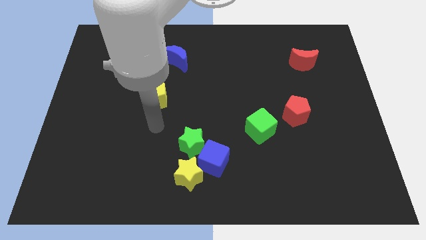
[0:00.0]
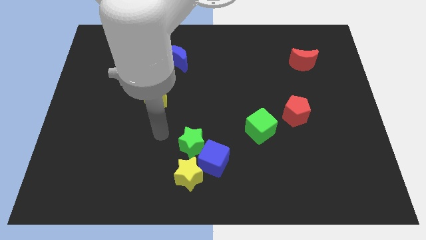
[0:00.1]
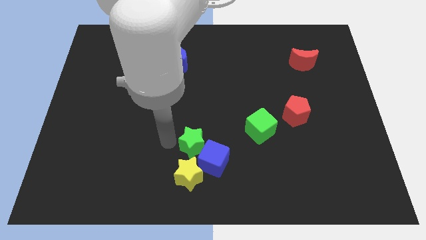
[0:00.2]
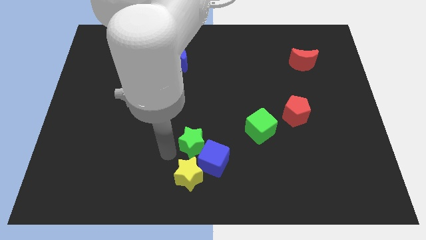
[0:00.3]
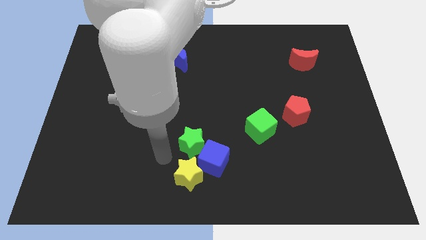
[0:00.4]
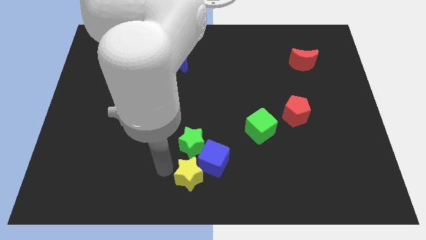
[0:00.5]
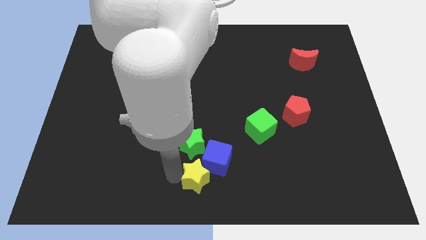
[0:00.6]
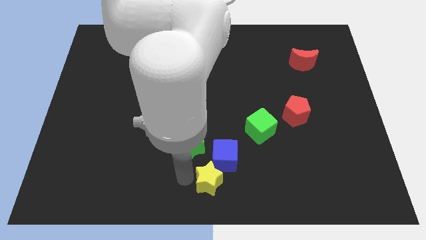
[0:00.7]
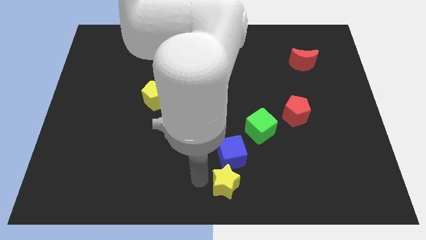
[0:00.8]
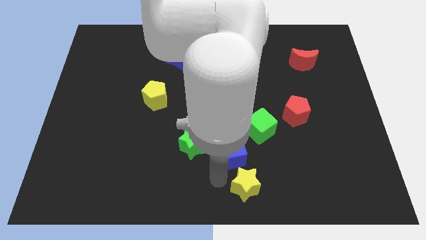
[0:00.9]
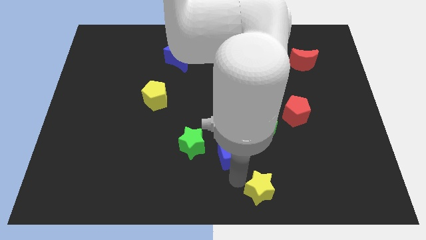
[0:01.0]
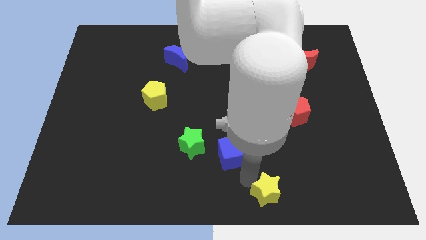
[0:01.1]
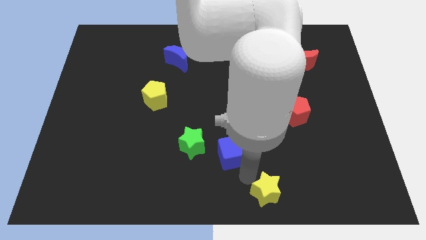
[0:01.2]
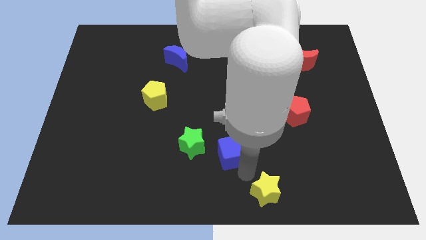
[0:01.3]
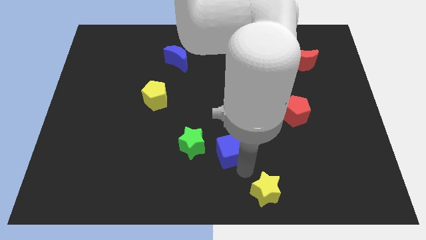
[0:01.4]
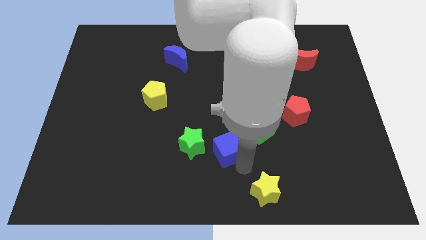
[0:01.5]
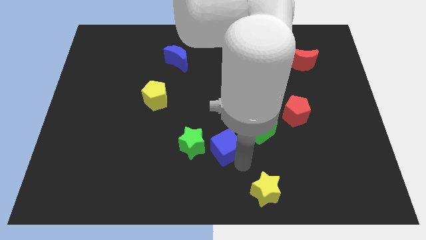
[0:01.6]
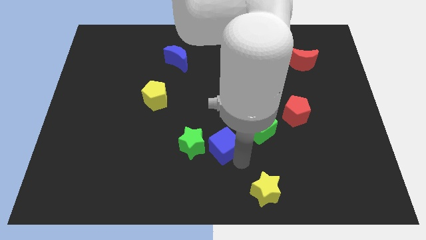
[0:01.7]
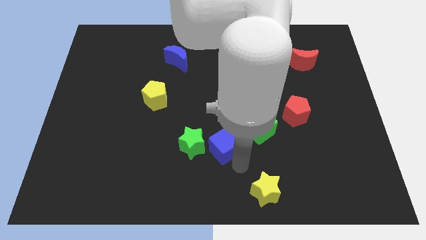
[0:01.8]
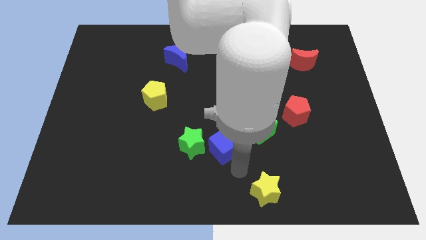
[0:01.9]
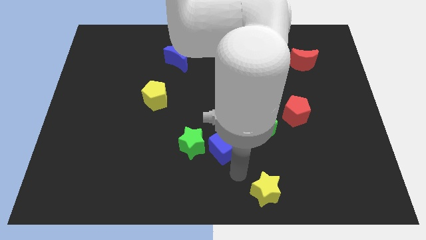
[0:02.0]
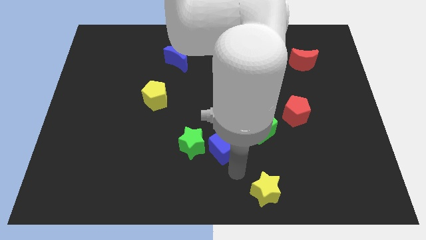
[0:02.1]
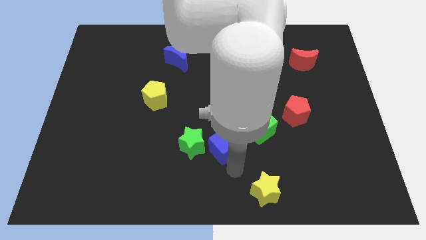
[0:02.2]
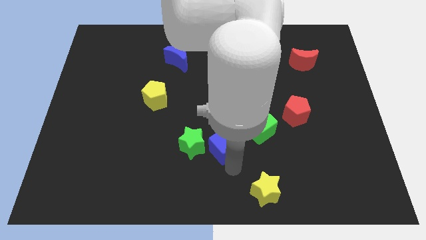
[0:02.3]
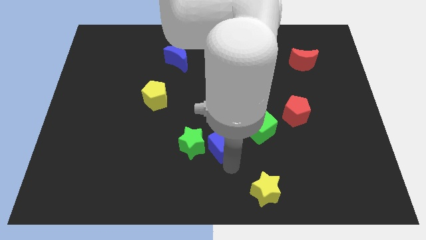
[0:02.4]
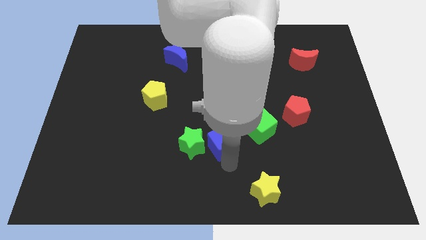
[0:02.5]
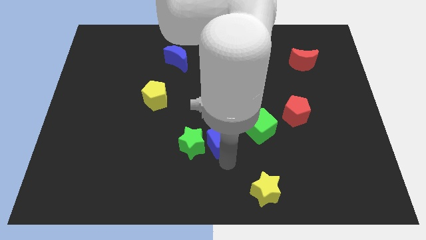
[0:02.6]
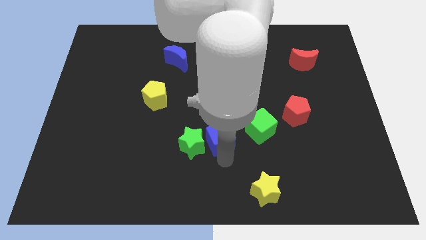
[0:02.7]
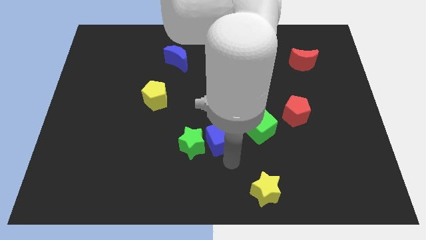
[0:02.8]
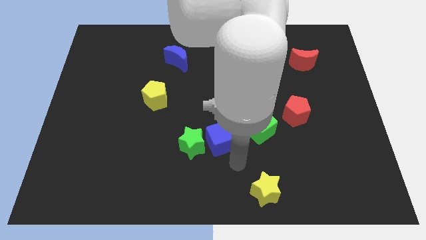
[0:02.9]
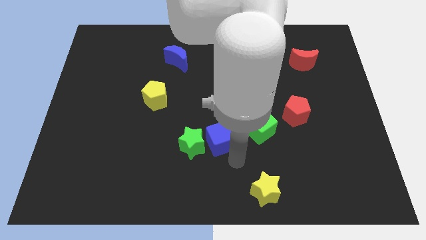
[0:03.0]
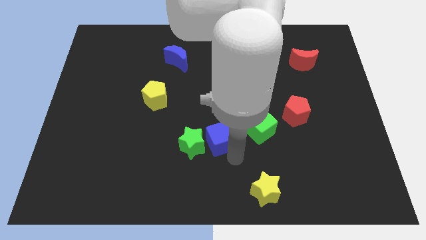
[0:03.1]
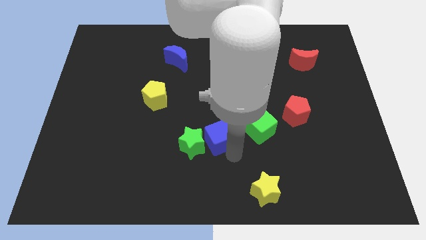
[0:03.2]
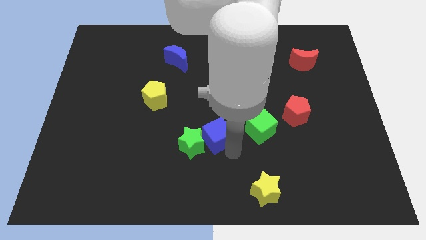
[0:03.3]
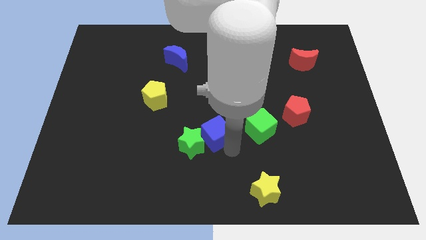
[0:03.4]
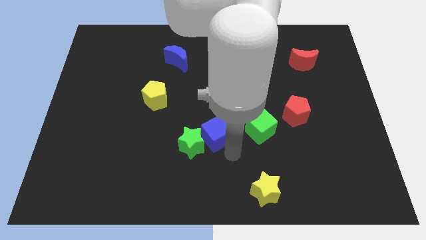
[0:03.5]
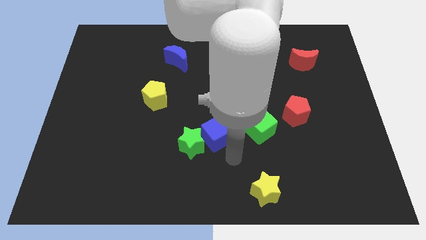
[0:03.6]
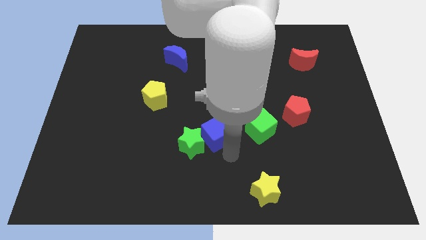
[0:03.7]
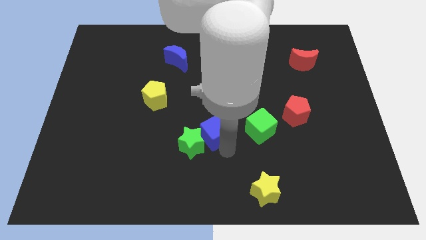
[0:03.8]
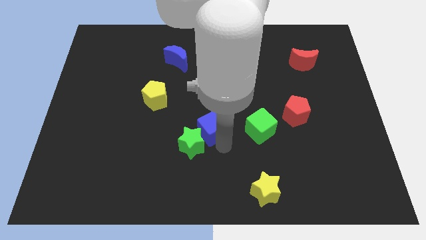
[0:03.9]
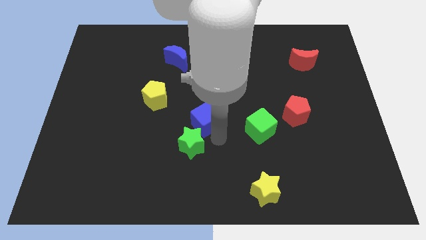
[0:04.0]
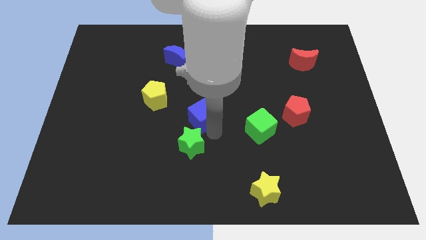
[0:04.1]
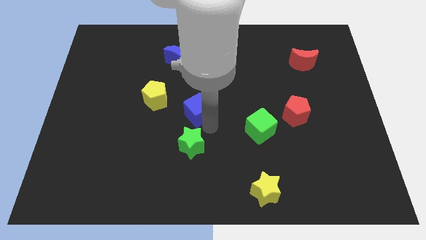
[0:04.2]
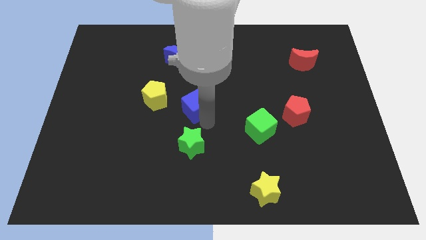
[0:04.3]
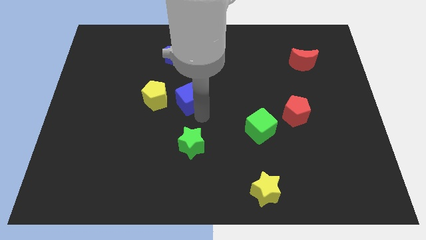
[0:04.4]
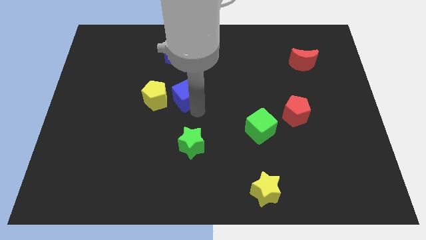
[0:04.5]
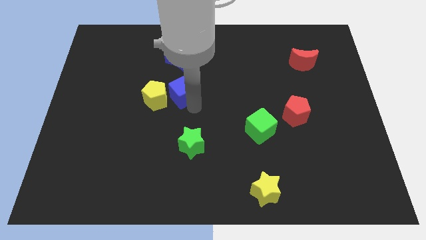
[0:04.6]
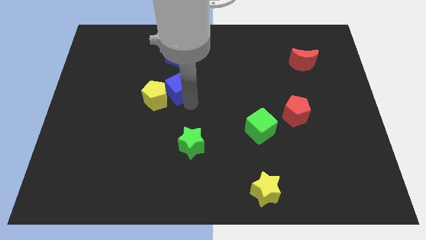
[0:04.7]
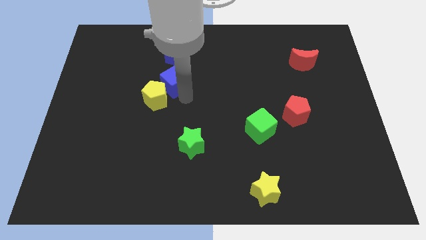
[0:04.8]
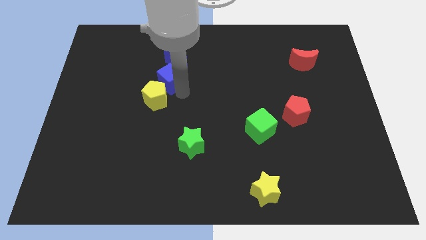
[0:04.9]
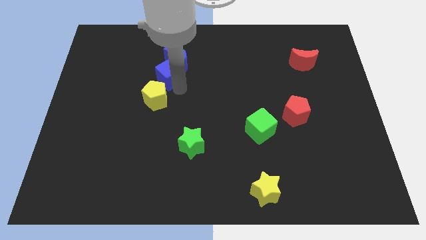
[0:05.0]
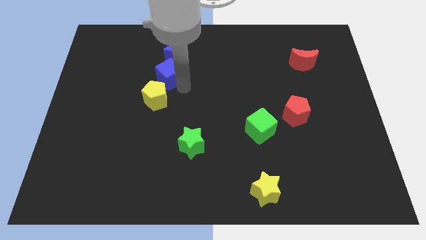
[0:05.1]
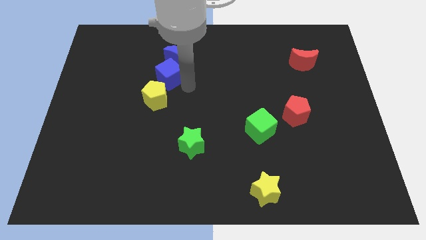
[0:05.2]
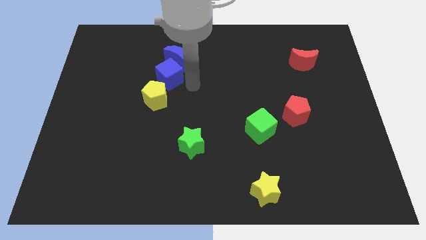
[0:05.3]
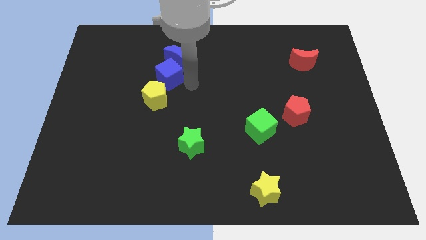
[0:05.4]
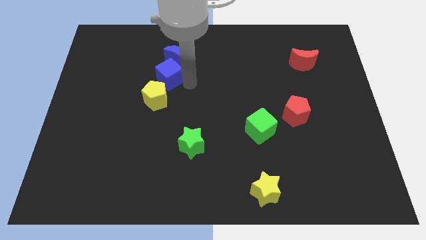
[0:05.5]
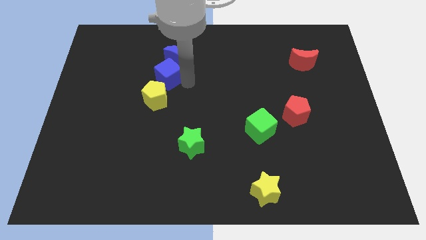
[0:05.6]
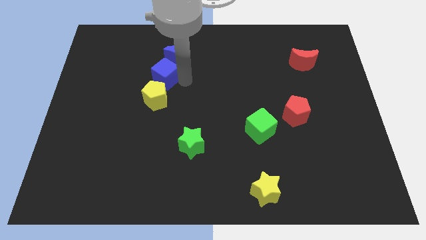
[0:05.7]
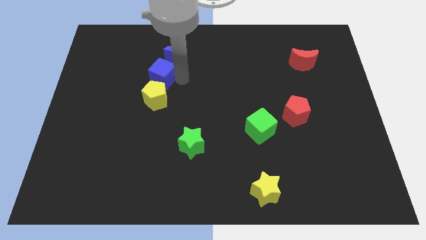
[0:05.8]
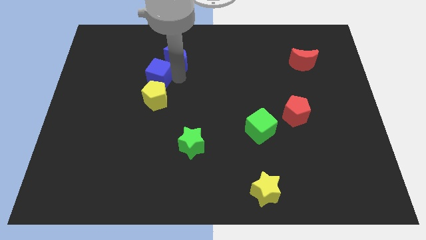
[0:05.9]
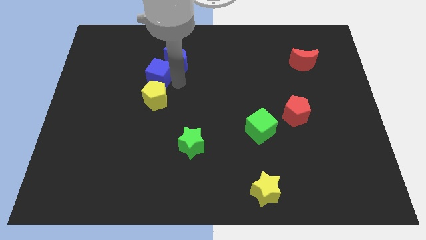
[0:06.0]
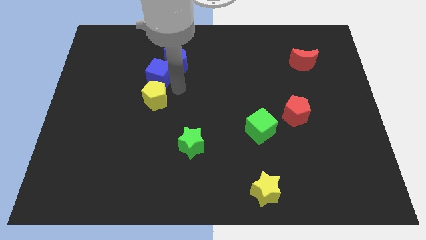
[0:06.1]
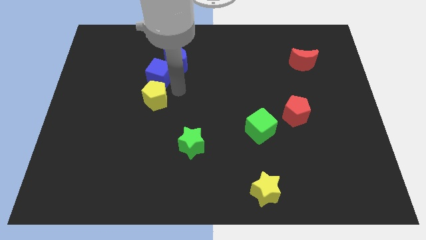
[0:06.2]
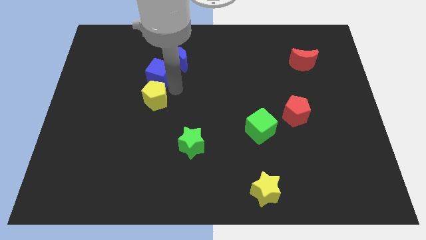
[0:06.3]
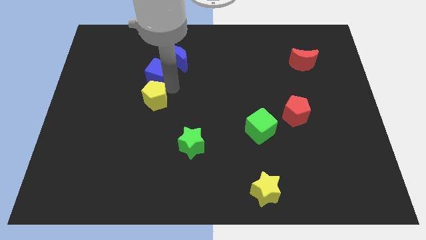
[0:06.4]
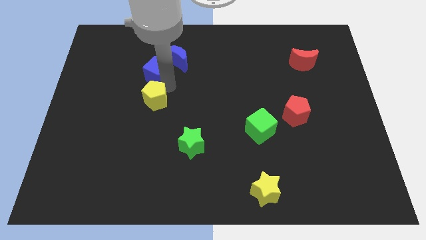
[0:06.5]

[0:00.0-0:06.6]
put the blue cube just left of the blue moon
